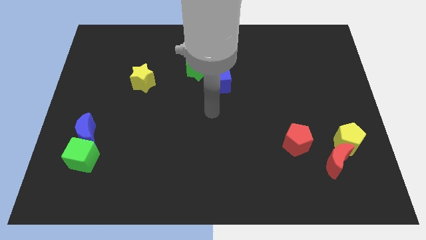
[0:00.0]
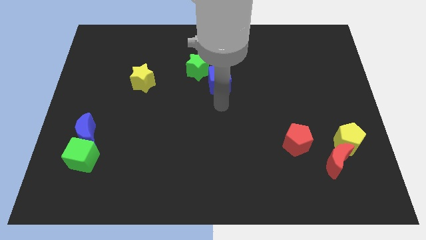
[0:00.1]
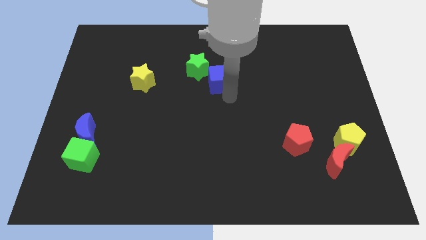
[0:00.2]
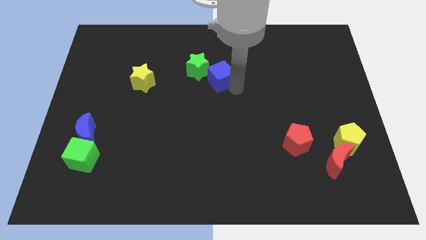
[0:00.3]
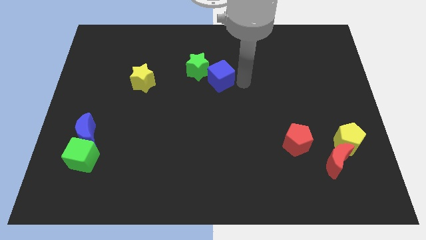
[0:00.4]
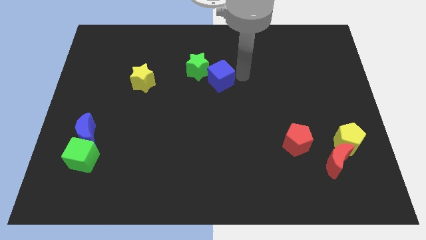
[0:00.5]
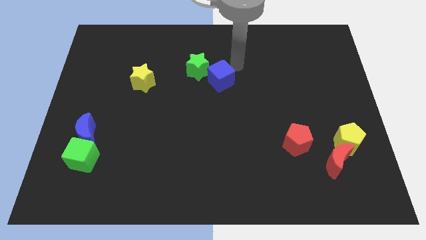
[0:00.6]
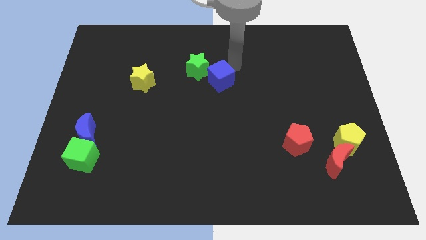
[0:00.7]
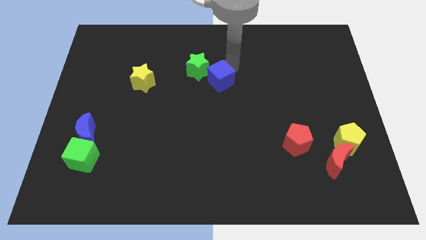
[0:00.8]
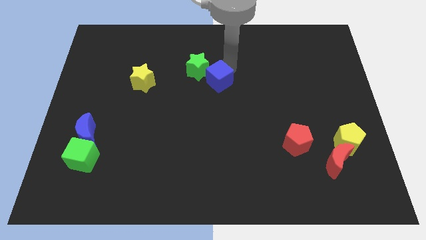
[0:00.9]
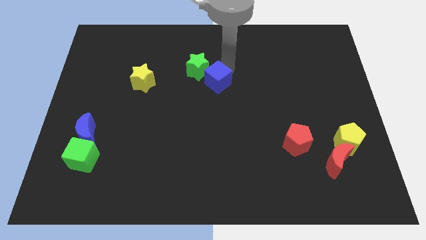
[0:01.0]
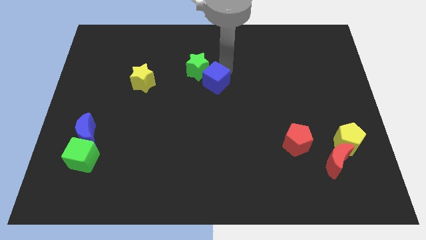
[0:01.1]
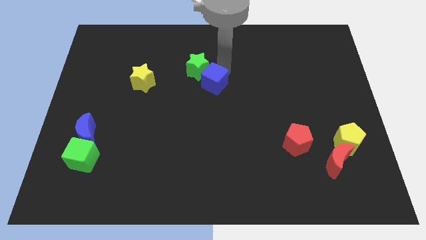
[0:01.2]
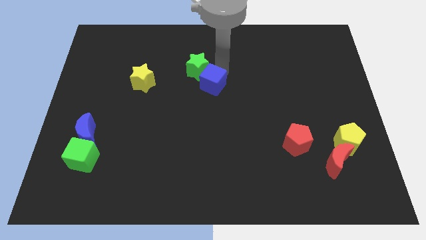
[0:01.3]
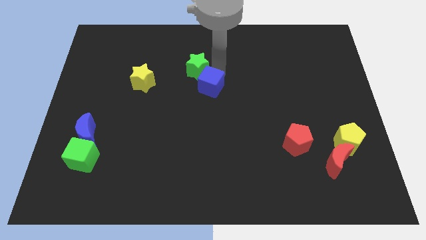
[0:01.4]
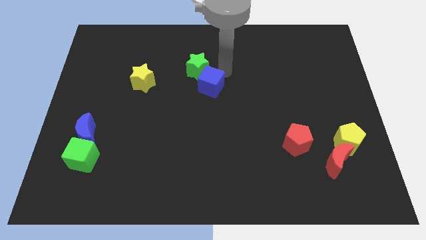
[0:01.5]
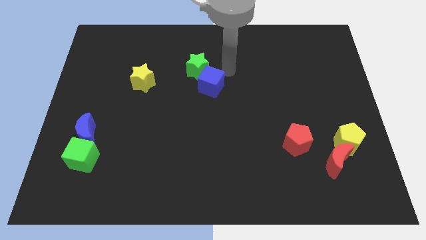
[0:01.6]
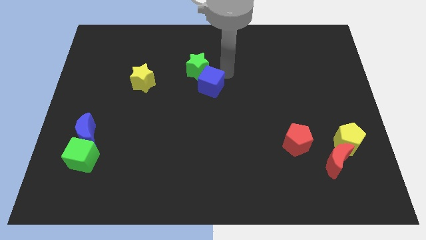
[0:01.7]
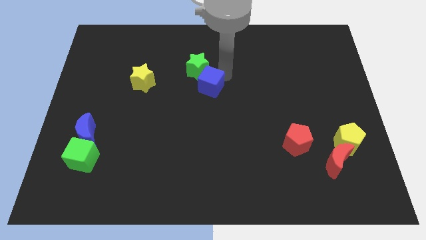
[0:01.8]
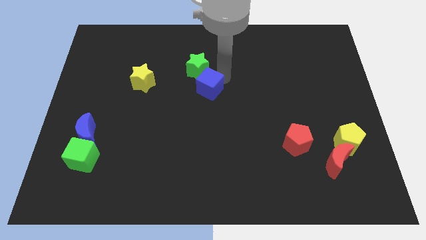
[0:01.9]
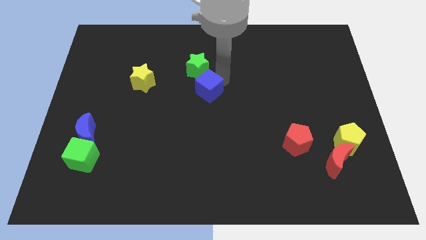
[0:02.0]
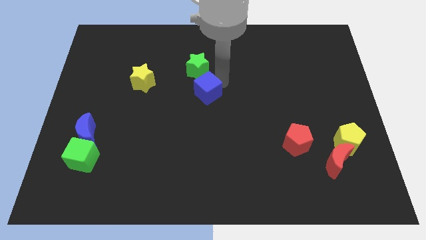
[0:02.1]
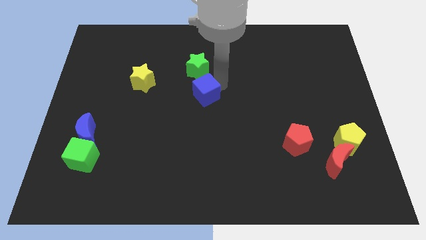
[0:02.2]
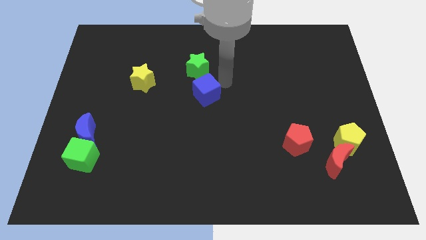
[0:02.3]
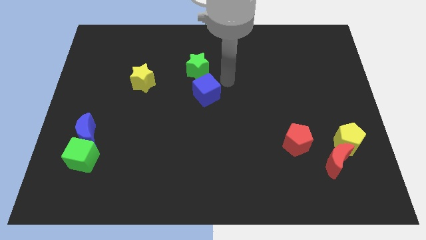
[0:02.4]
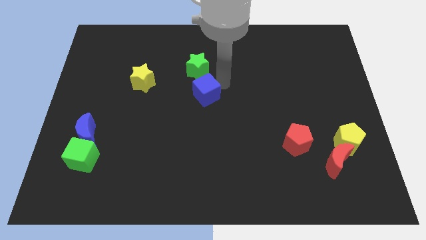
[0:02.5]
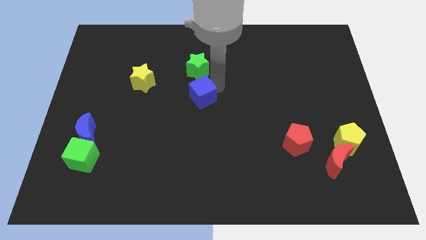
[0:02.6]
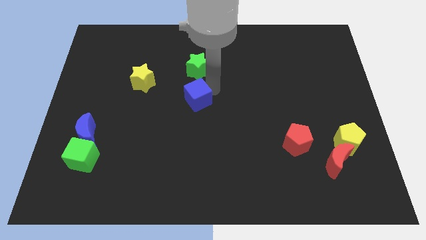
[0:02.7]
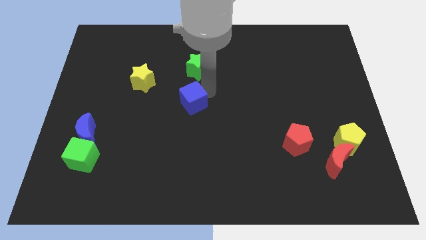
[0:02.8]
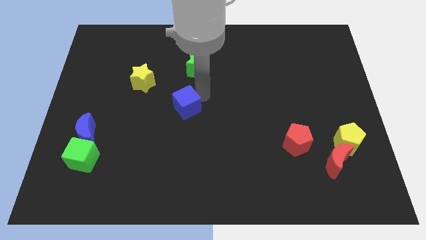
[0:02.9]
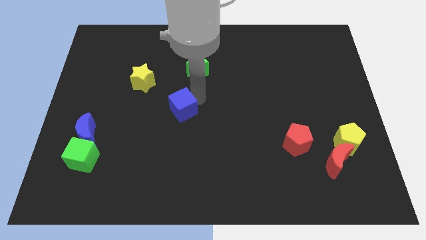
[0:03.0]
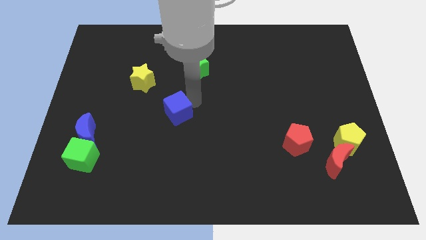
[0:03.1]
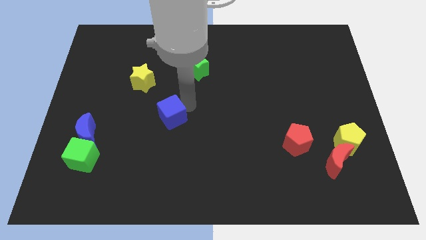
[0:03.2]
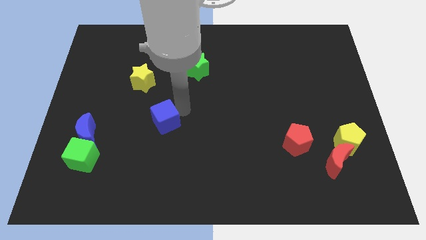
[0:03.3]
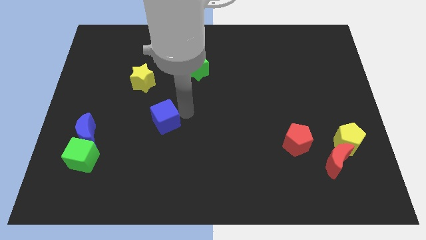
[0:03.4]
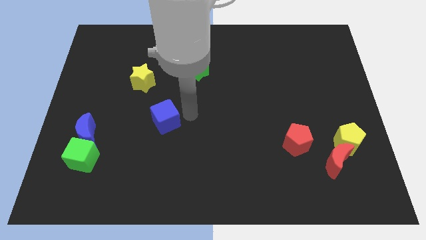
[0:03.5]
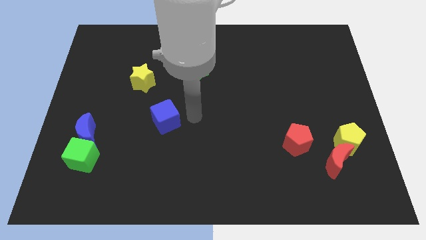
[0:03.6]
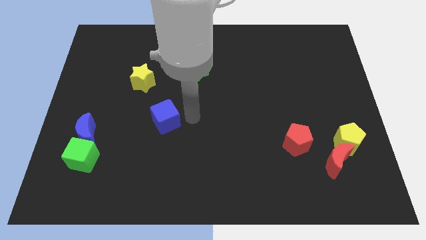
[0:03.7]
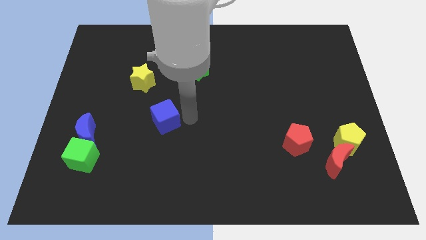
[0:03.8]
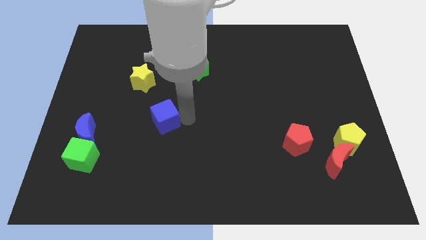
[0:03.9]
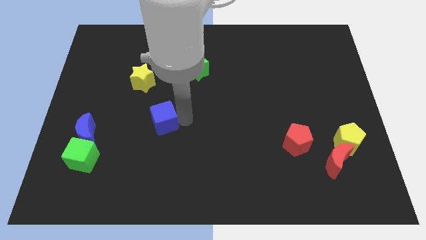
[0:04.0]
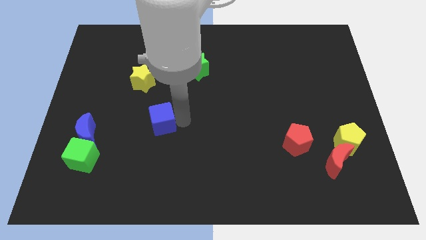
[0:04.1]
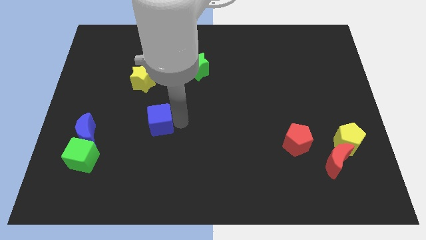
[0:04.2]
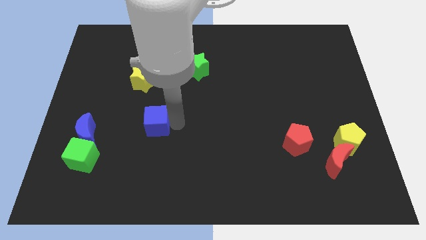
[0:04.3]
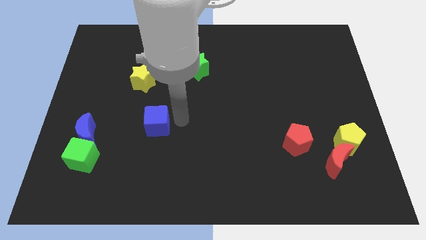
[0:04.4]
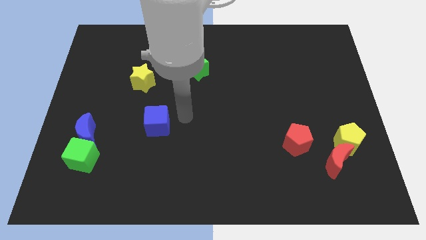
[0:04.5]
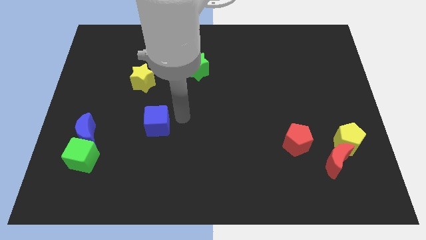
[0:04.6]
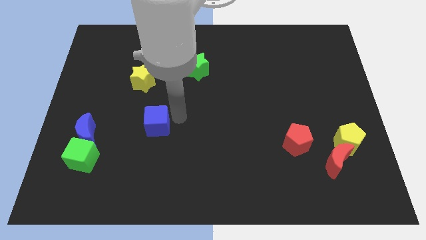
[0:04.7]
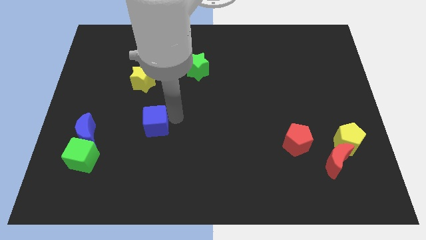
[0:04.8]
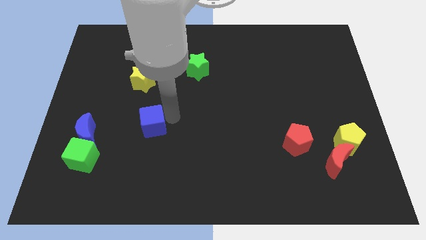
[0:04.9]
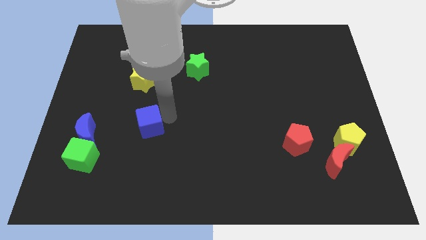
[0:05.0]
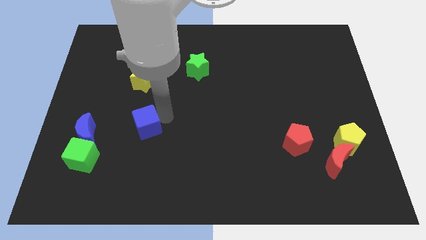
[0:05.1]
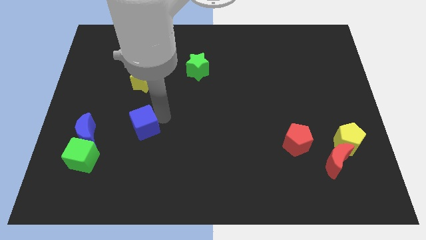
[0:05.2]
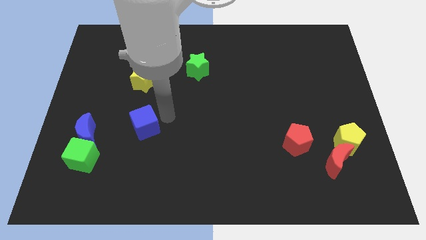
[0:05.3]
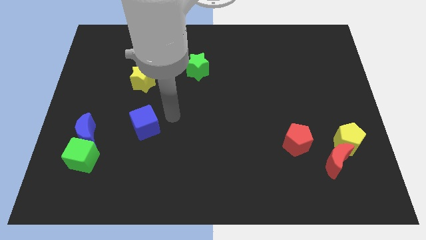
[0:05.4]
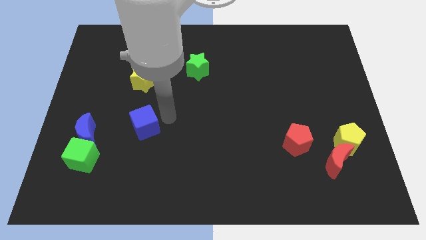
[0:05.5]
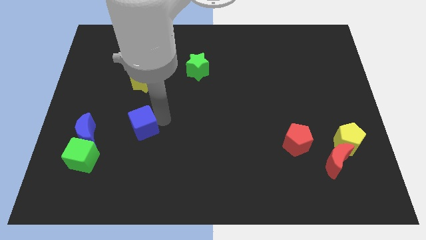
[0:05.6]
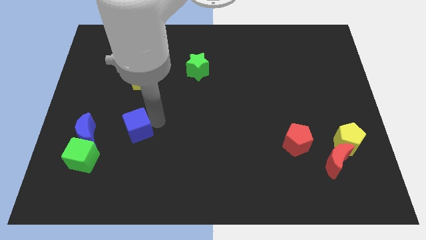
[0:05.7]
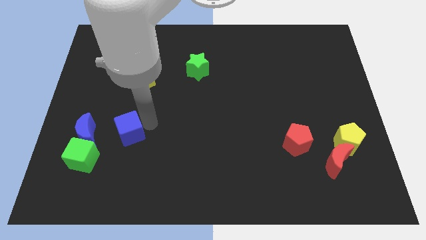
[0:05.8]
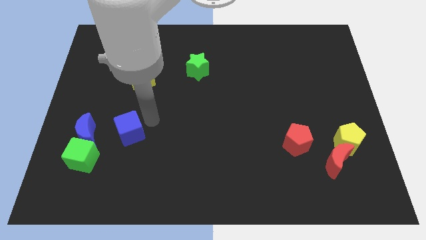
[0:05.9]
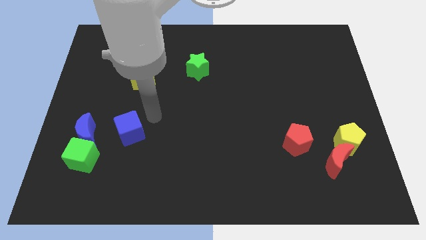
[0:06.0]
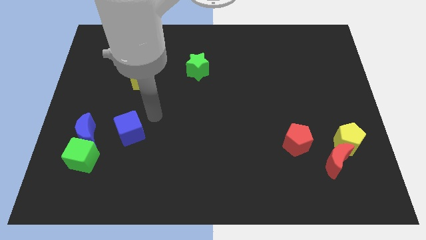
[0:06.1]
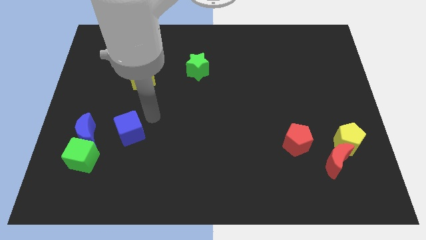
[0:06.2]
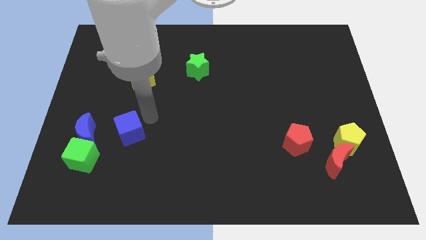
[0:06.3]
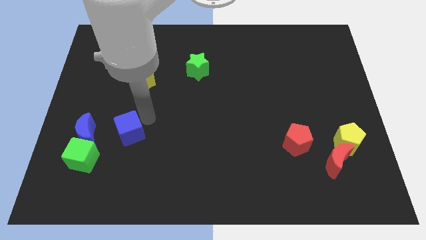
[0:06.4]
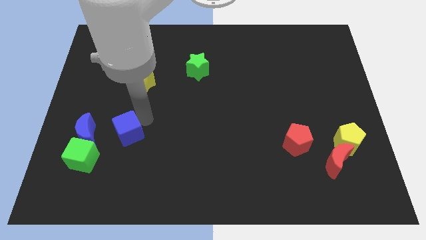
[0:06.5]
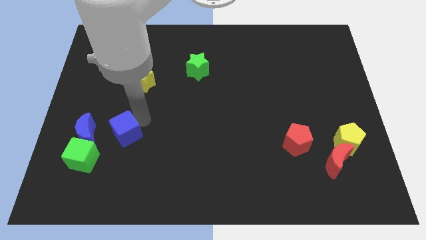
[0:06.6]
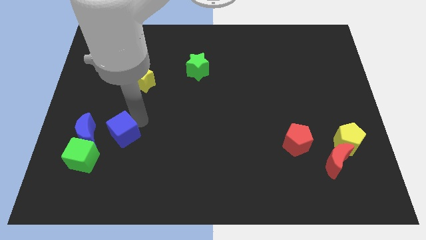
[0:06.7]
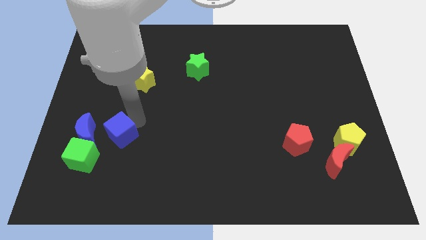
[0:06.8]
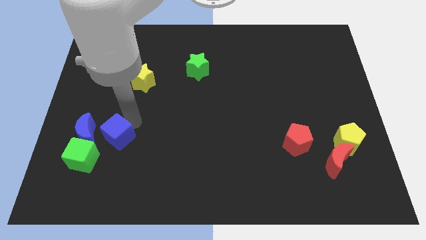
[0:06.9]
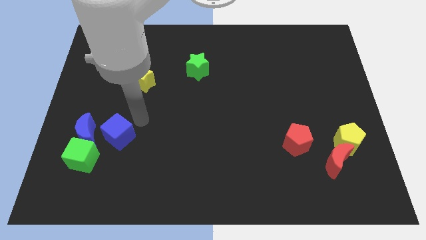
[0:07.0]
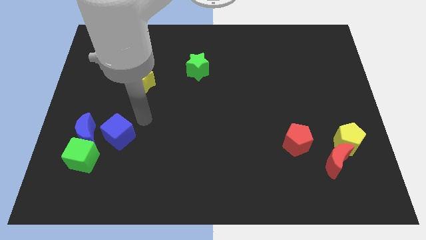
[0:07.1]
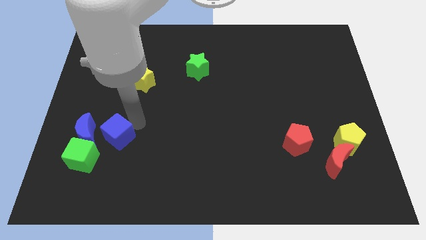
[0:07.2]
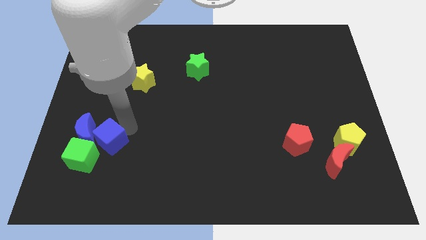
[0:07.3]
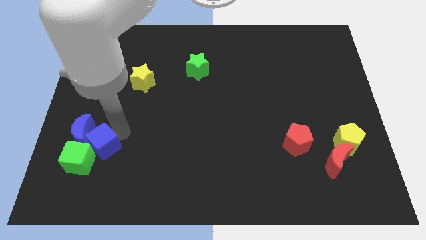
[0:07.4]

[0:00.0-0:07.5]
put the blue cube next to the green cube
